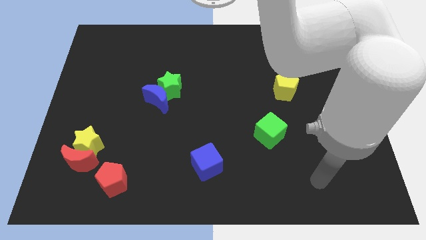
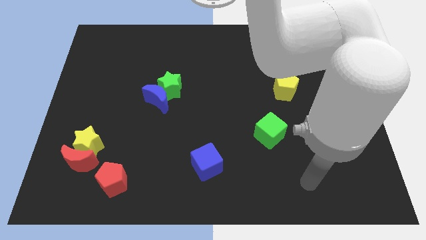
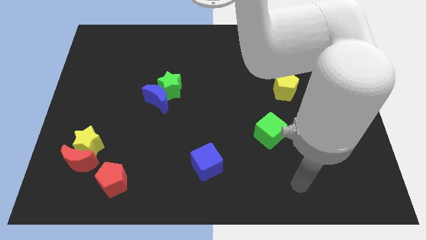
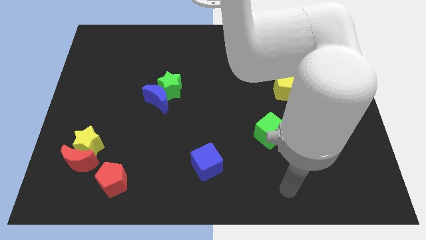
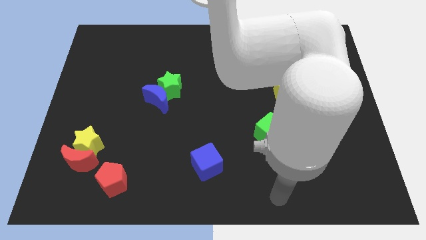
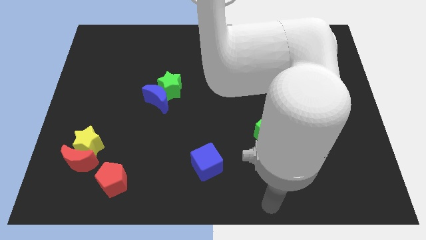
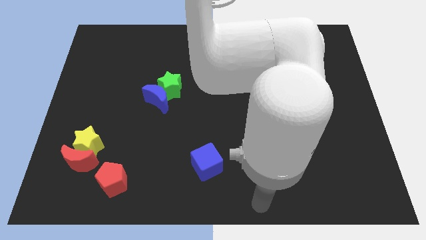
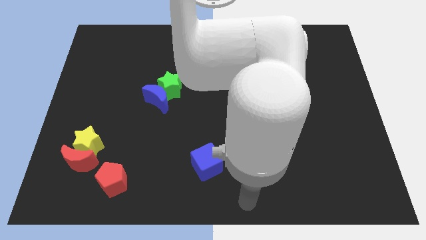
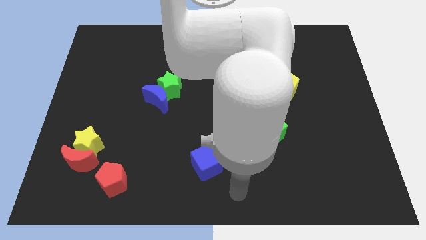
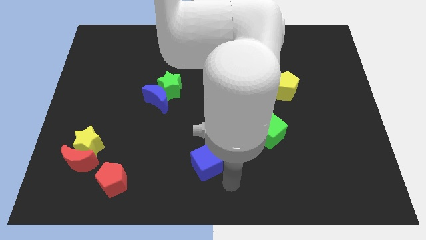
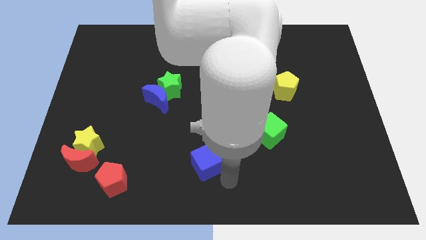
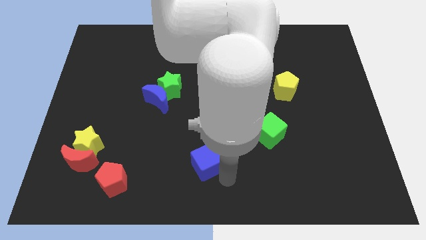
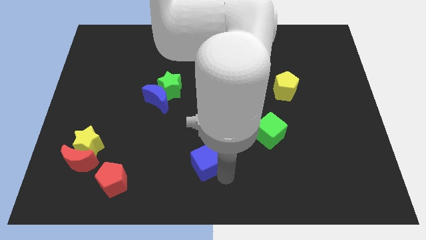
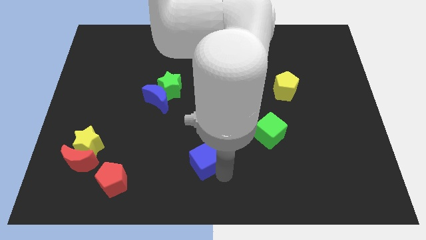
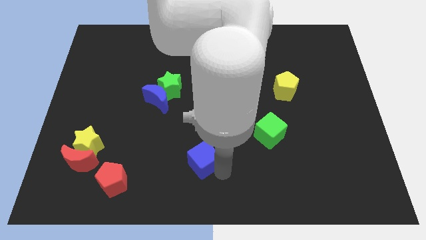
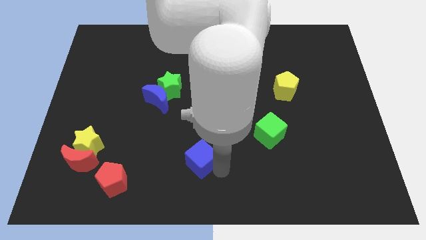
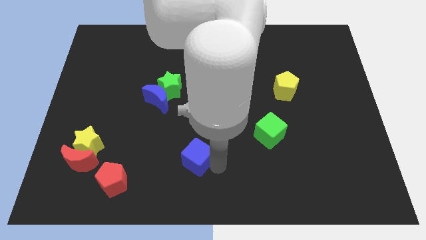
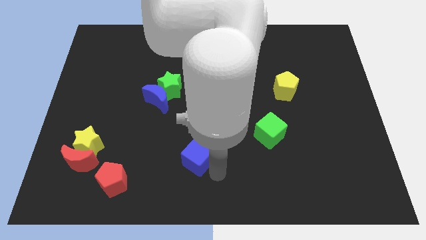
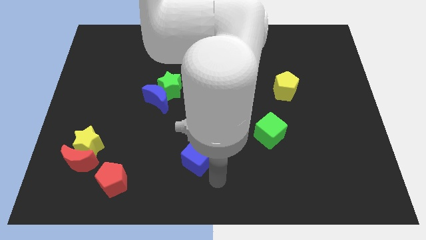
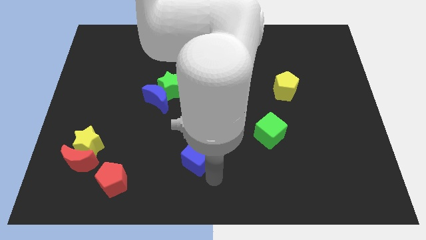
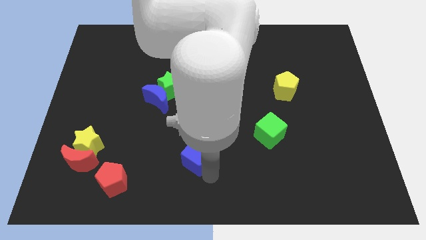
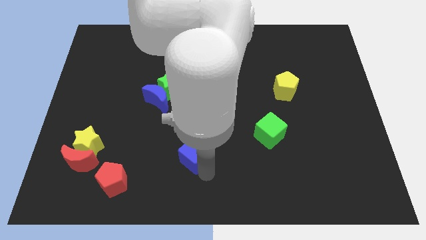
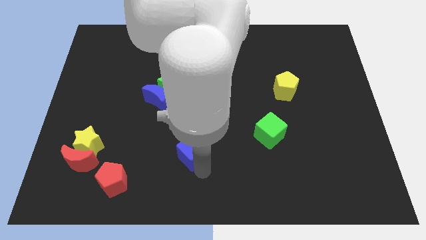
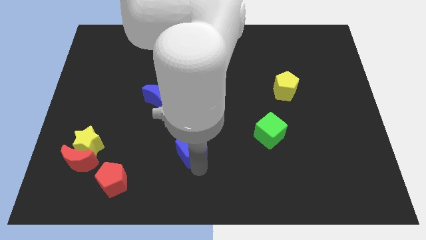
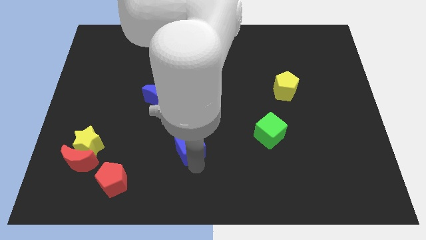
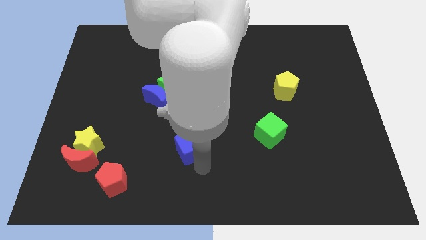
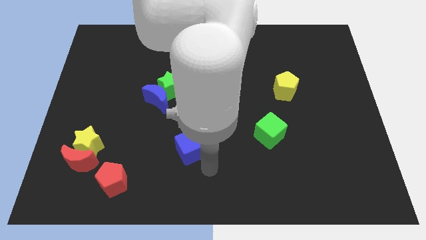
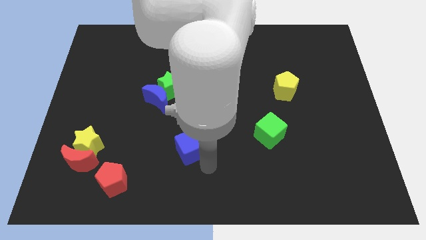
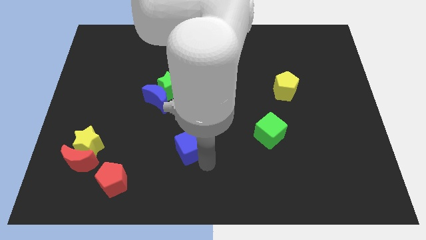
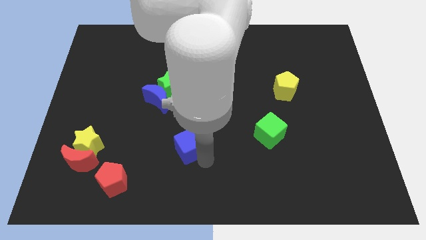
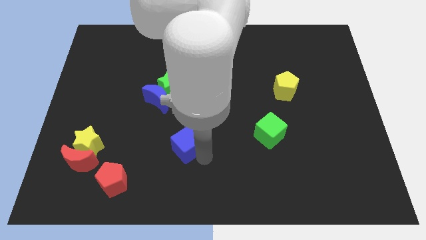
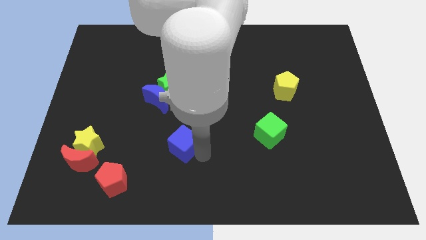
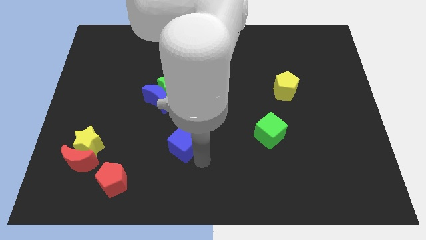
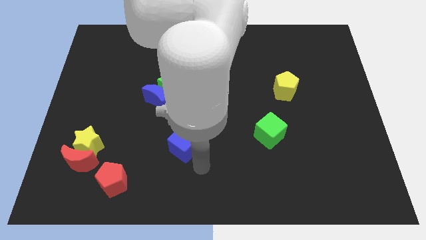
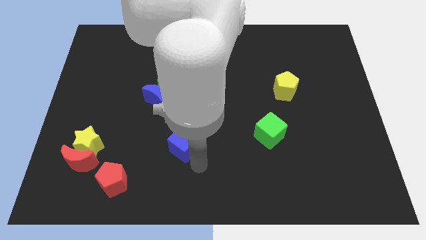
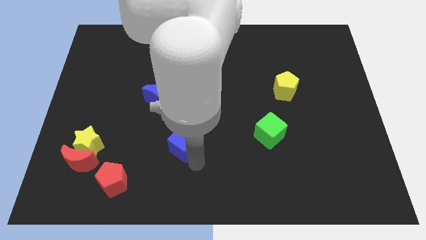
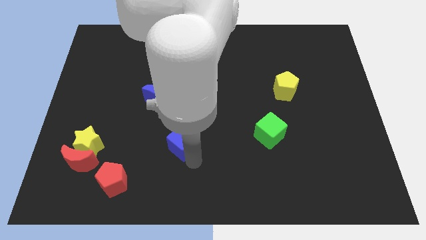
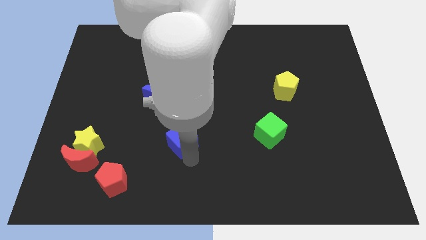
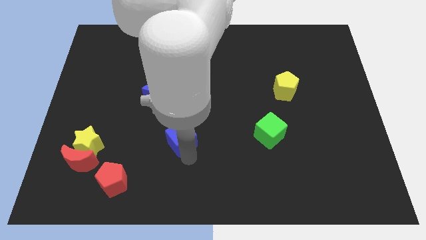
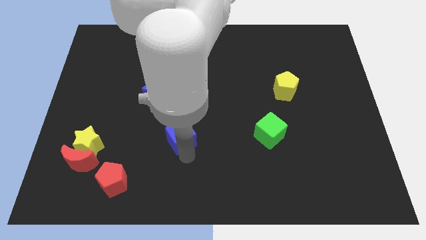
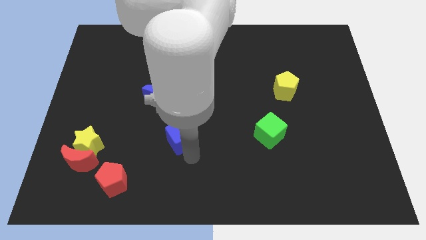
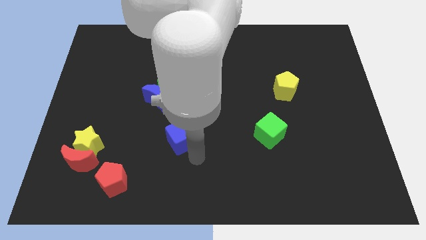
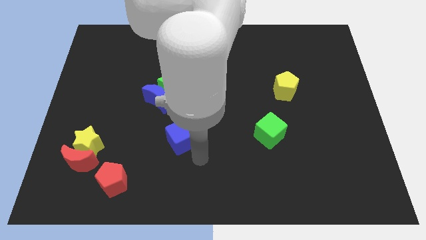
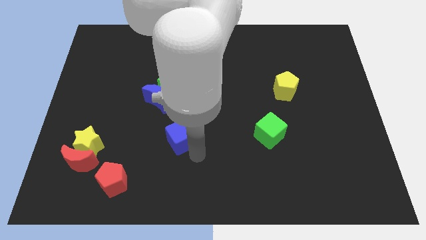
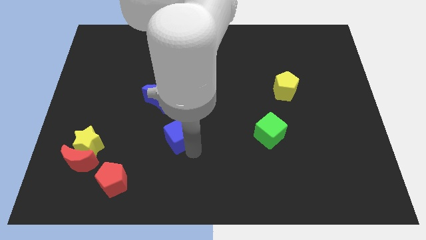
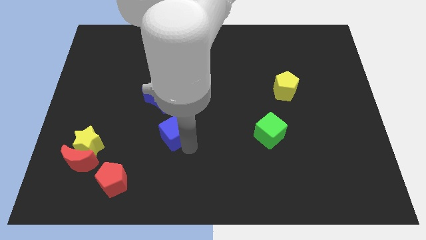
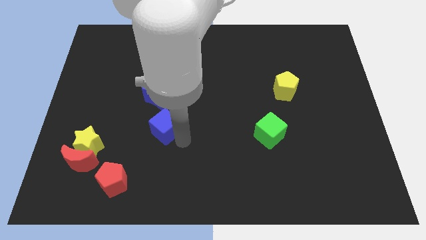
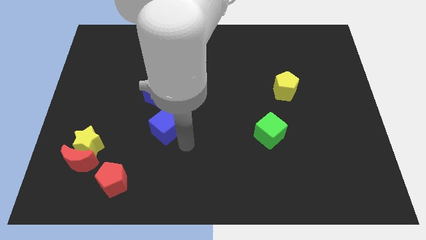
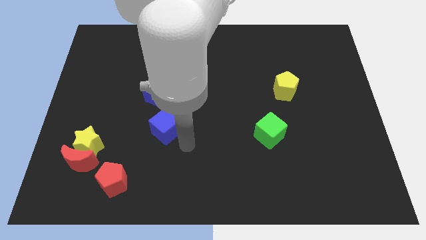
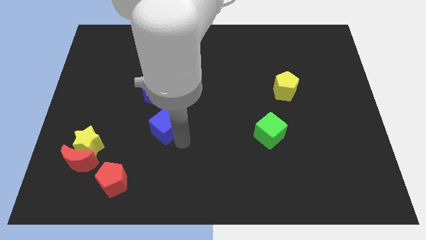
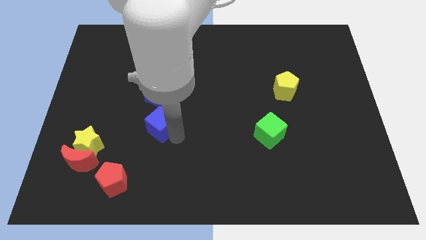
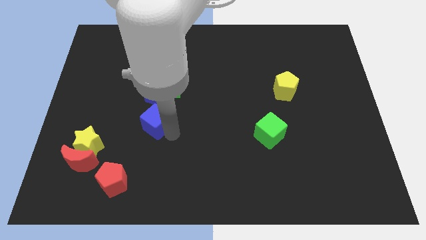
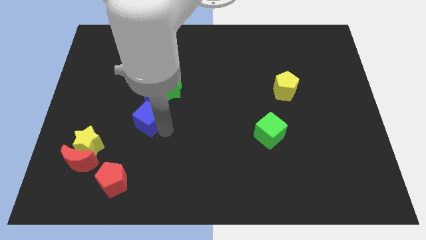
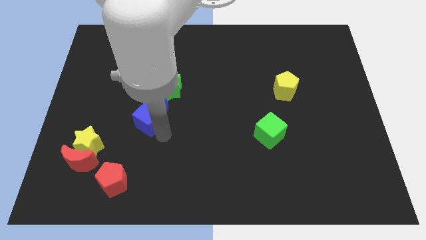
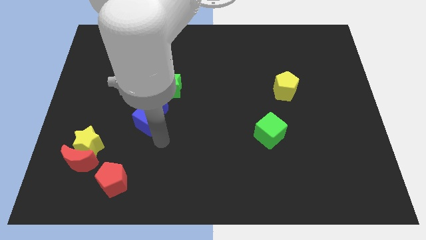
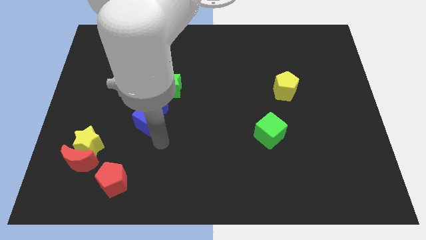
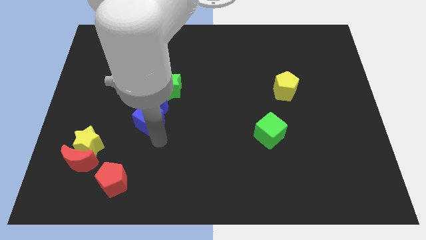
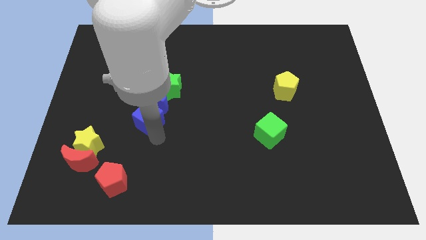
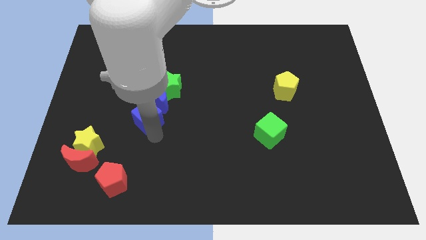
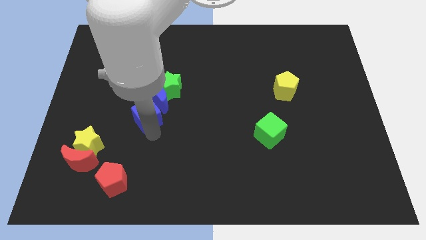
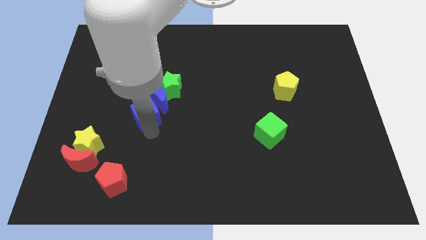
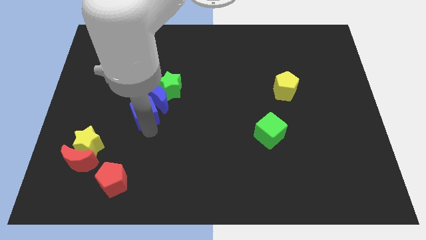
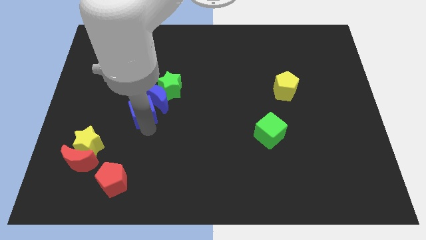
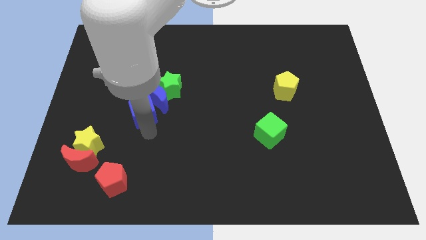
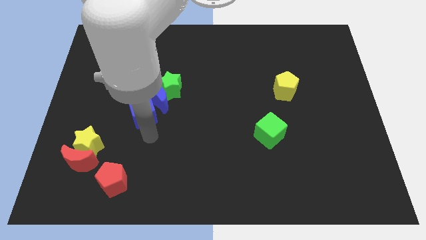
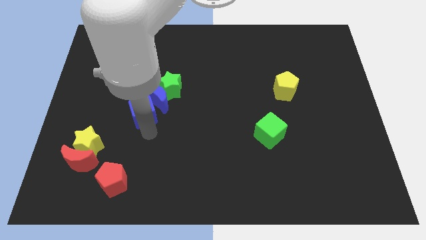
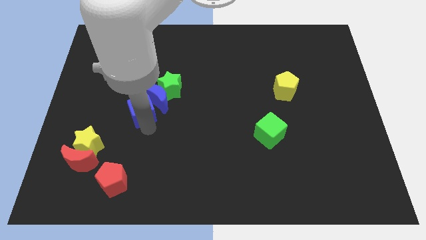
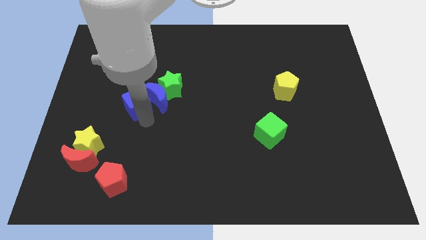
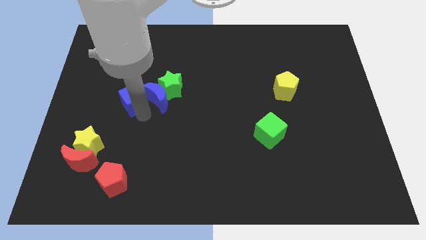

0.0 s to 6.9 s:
put the blue cube left of the green star
